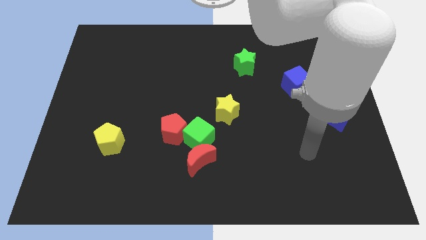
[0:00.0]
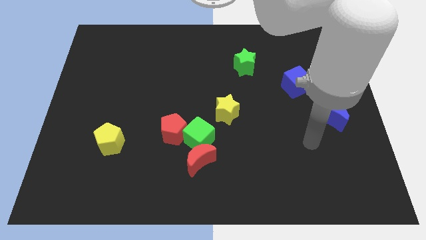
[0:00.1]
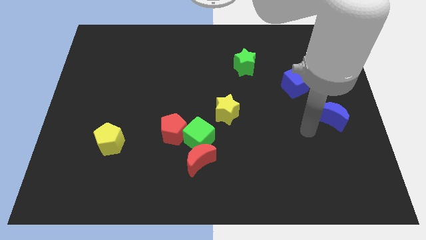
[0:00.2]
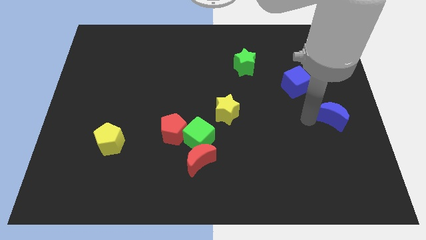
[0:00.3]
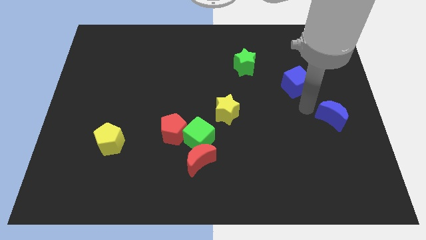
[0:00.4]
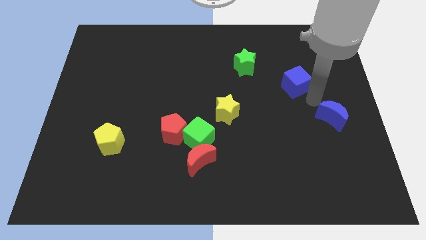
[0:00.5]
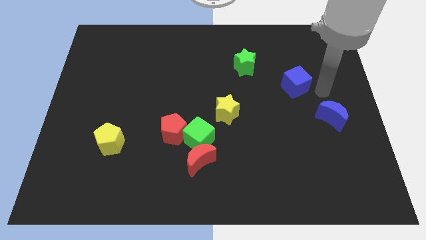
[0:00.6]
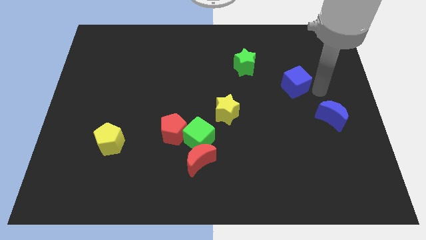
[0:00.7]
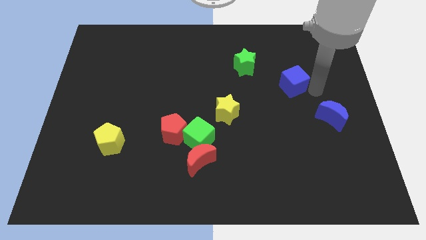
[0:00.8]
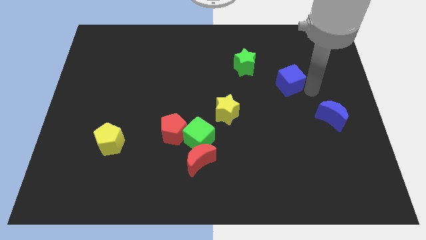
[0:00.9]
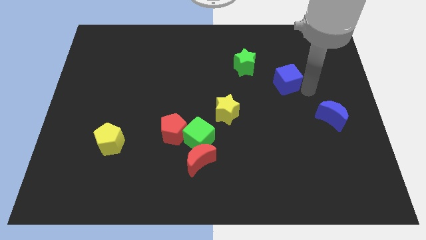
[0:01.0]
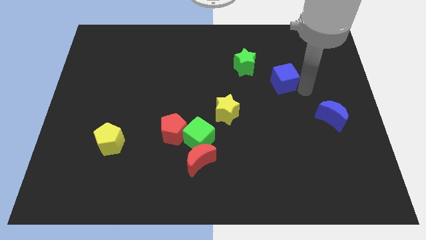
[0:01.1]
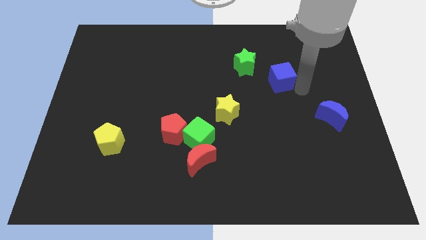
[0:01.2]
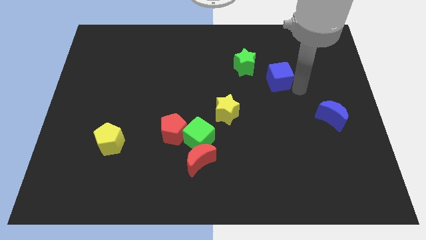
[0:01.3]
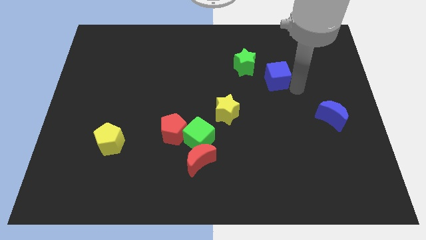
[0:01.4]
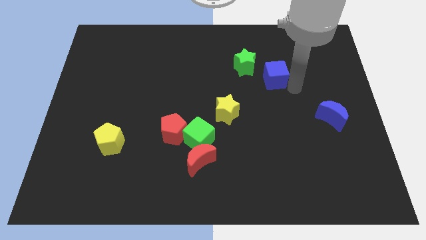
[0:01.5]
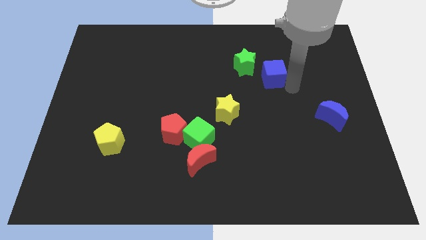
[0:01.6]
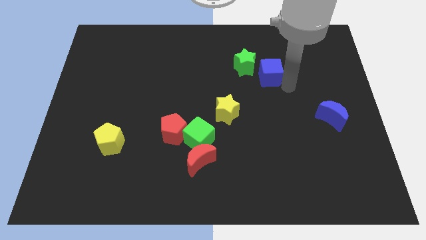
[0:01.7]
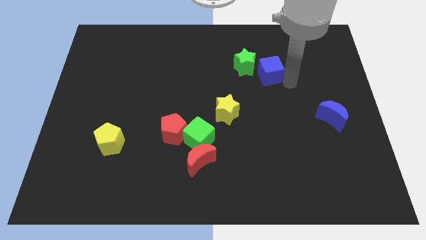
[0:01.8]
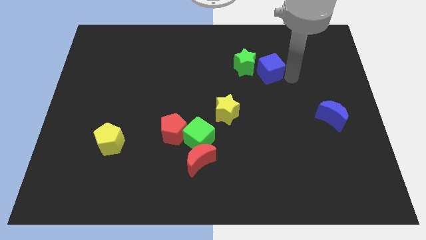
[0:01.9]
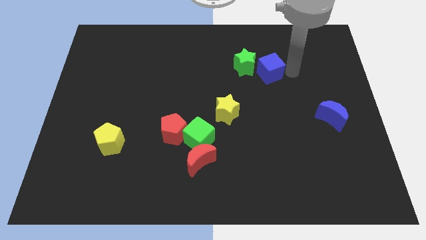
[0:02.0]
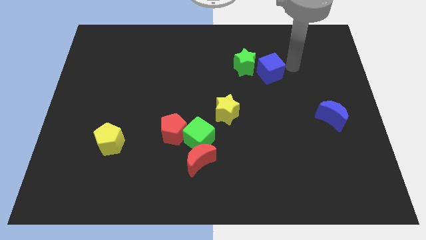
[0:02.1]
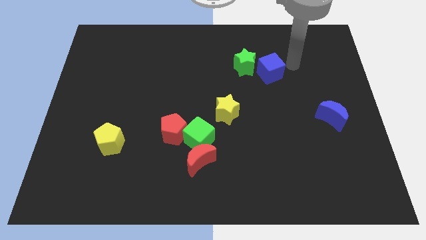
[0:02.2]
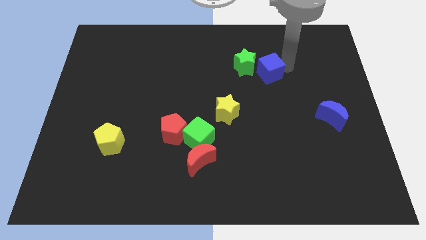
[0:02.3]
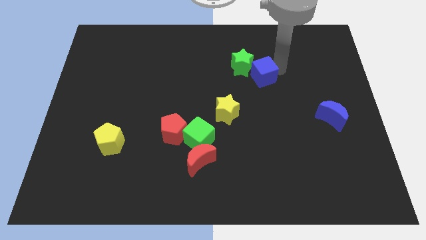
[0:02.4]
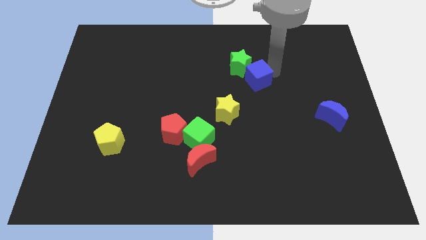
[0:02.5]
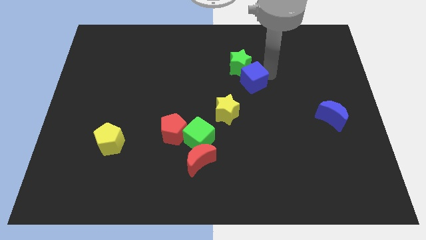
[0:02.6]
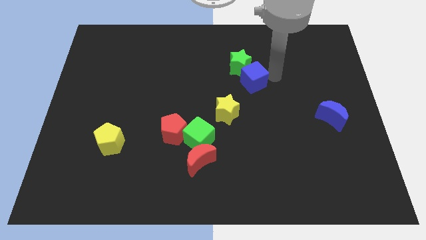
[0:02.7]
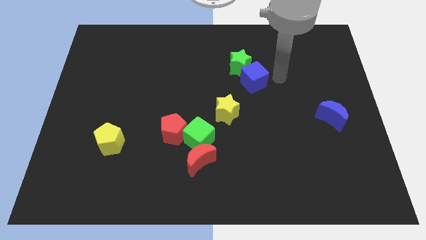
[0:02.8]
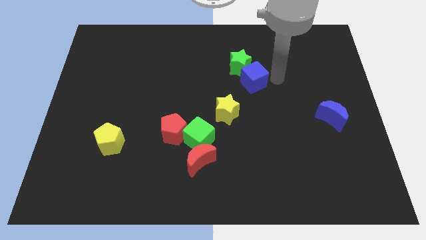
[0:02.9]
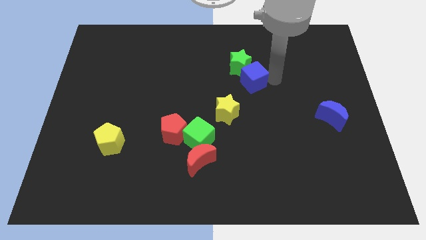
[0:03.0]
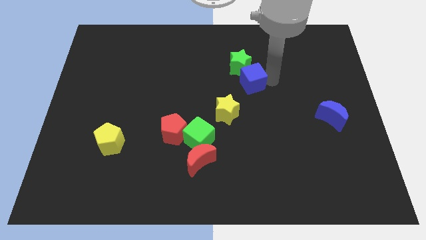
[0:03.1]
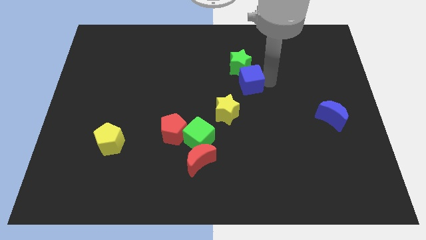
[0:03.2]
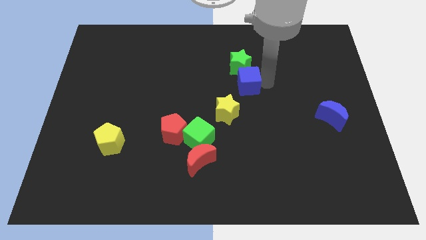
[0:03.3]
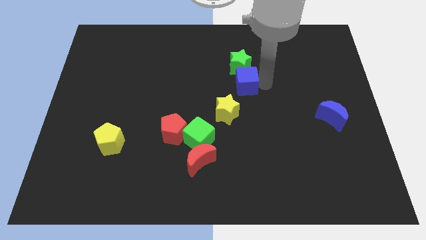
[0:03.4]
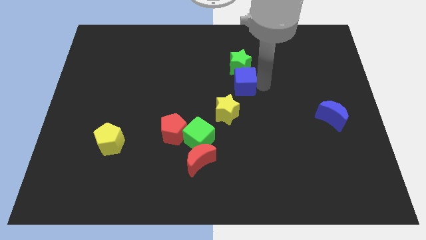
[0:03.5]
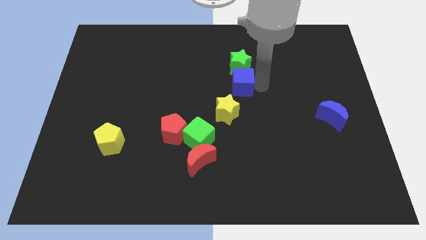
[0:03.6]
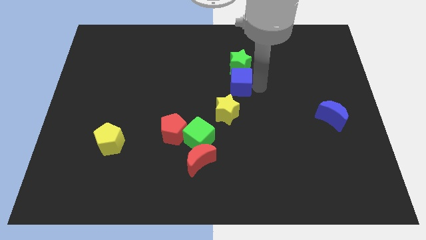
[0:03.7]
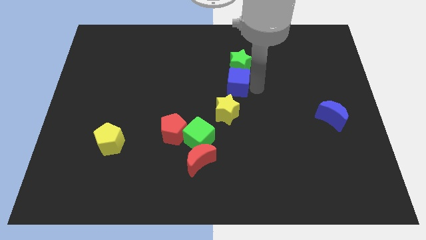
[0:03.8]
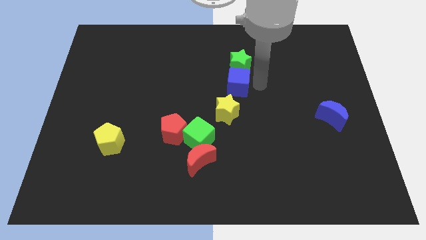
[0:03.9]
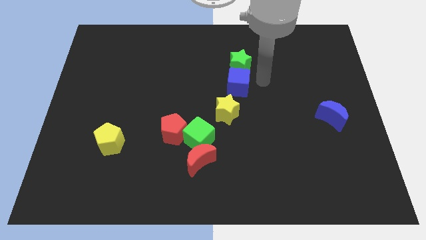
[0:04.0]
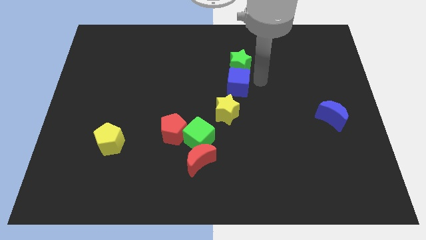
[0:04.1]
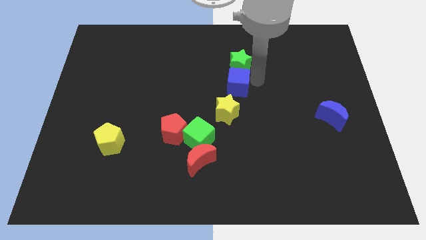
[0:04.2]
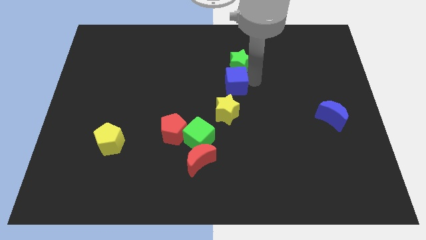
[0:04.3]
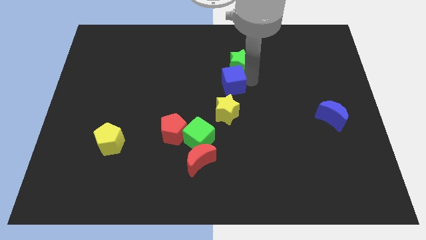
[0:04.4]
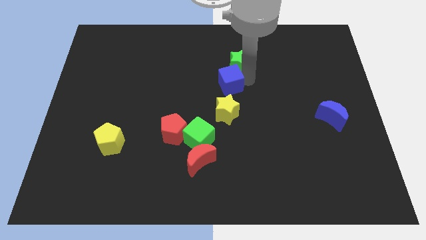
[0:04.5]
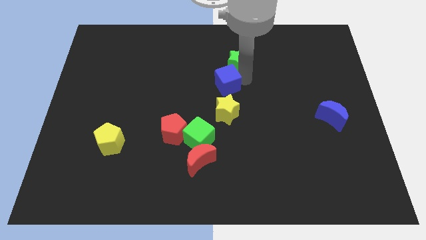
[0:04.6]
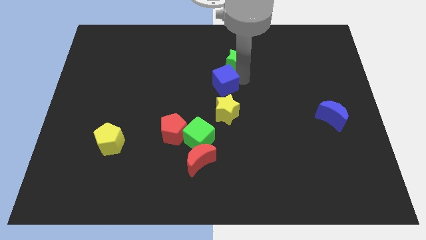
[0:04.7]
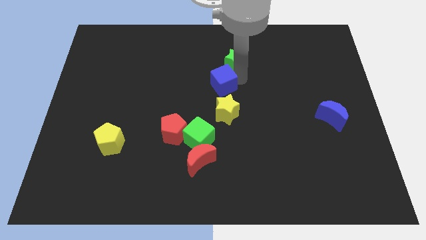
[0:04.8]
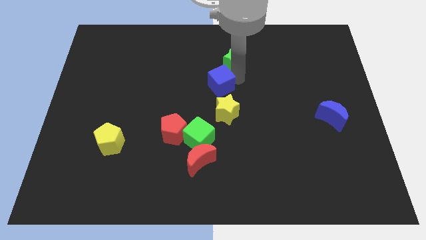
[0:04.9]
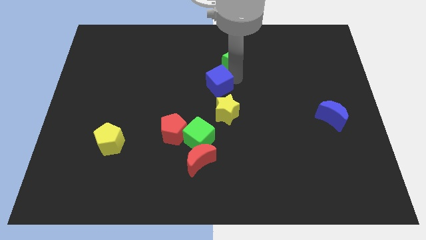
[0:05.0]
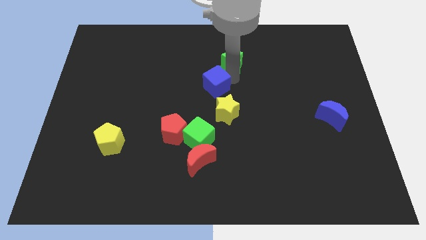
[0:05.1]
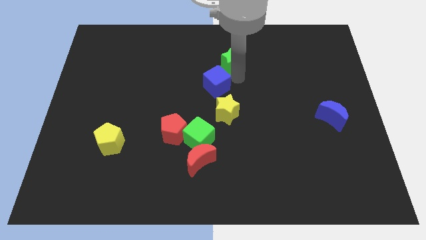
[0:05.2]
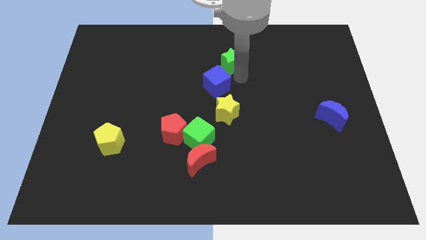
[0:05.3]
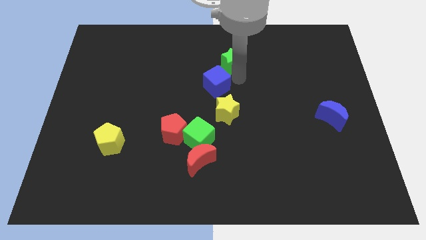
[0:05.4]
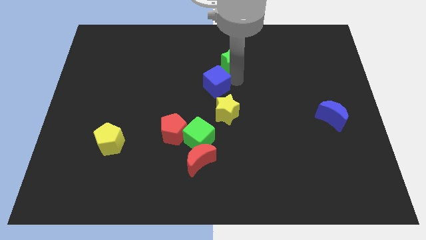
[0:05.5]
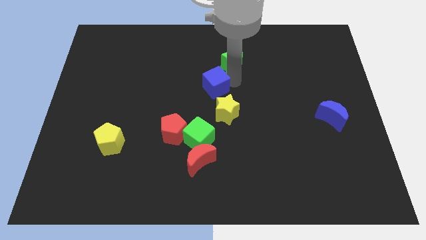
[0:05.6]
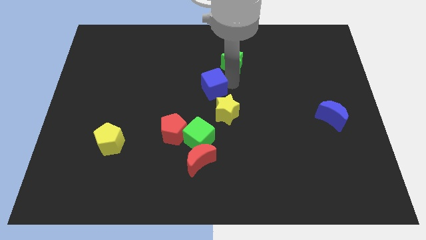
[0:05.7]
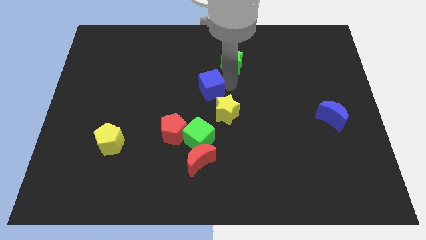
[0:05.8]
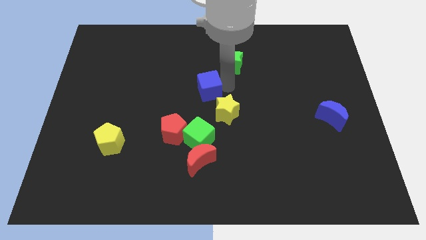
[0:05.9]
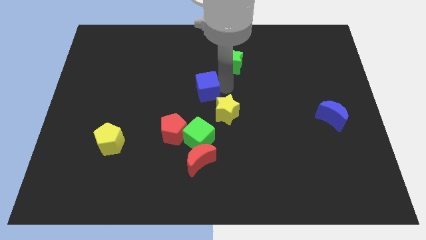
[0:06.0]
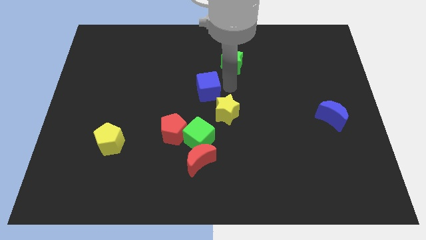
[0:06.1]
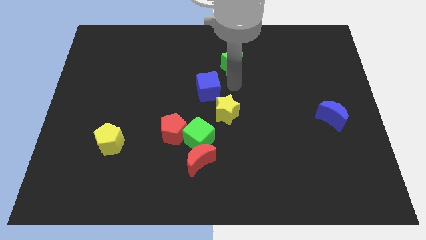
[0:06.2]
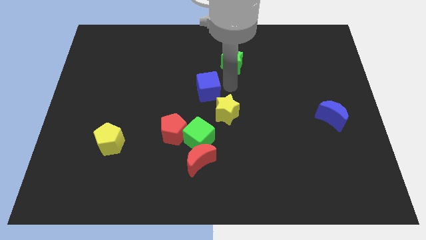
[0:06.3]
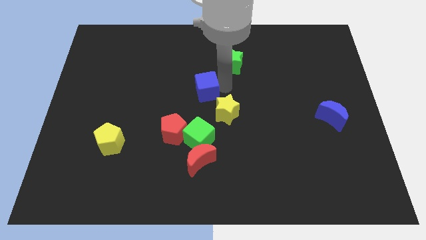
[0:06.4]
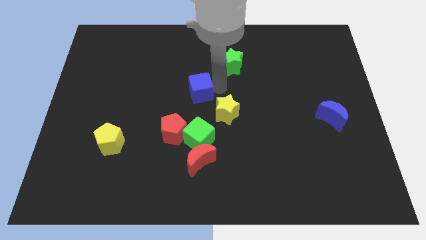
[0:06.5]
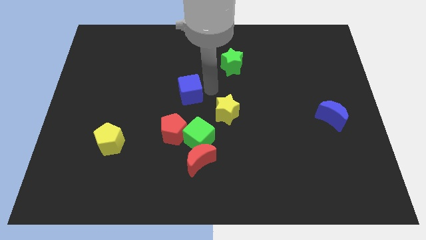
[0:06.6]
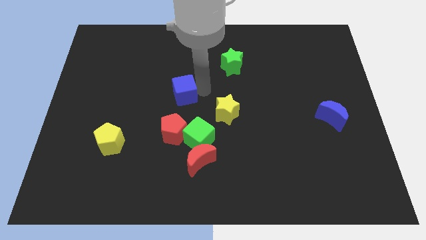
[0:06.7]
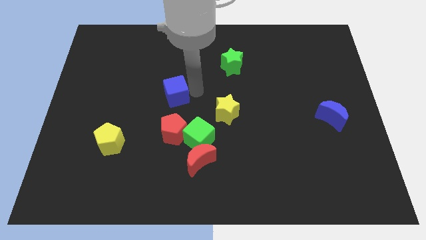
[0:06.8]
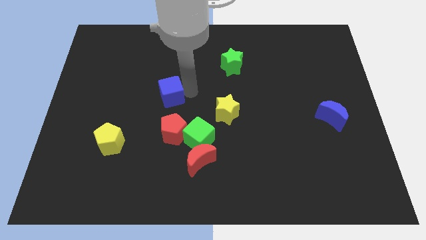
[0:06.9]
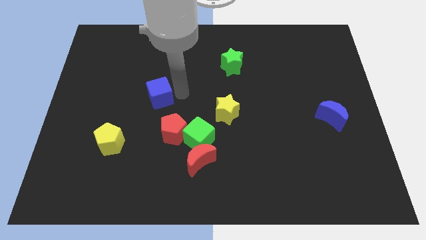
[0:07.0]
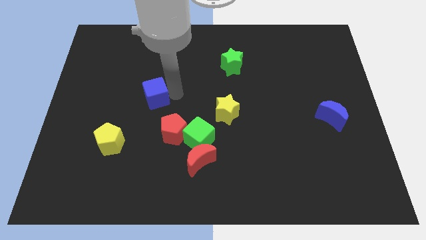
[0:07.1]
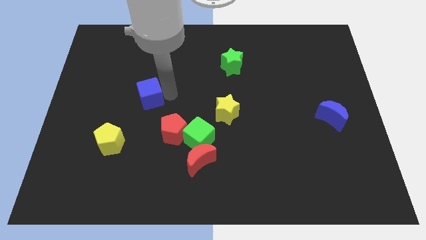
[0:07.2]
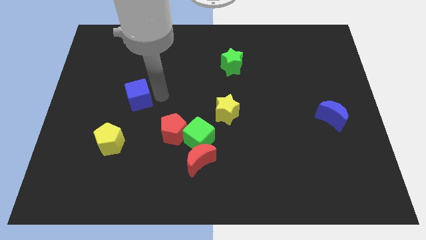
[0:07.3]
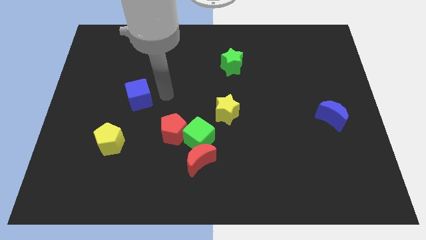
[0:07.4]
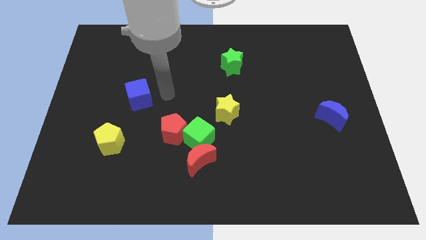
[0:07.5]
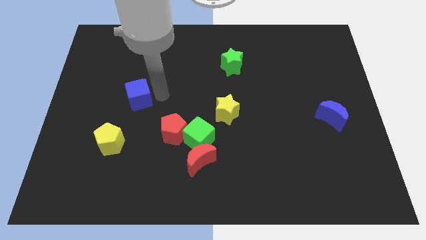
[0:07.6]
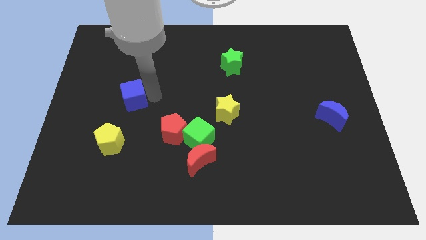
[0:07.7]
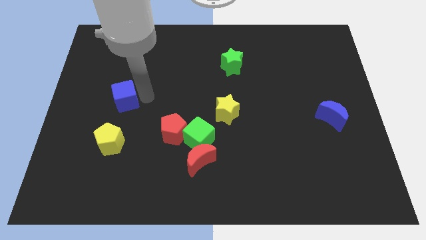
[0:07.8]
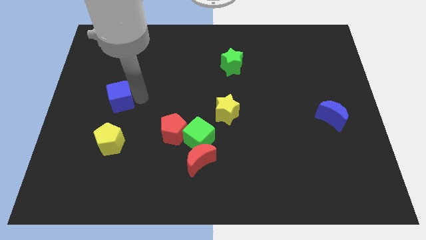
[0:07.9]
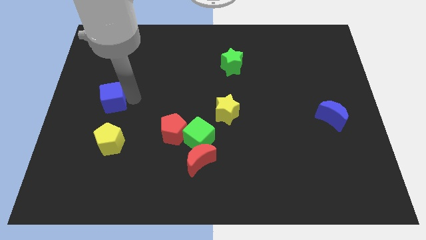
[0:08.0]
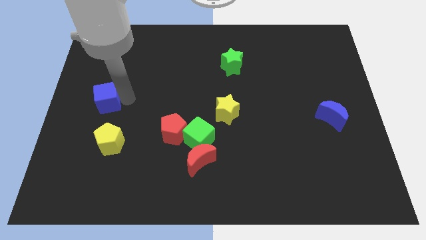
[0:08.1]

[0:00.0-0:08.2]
slide the blue cube to the center left
